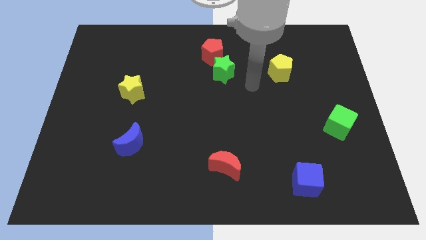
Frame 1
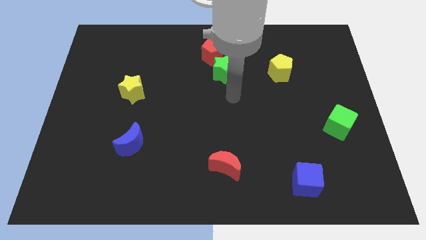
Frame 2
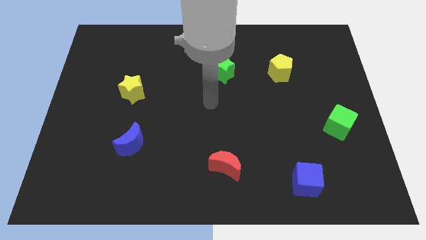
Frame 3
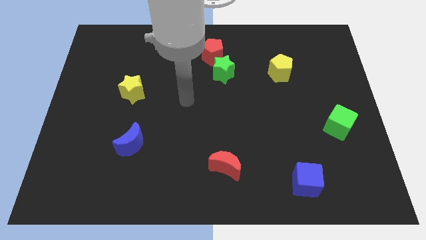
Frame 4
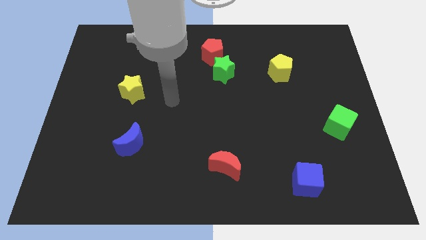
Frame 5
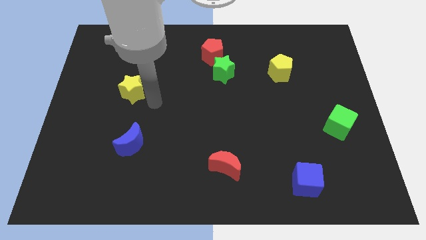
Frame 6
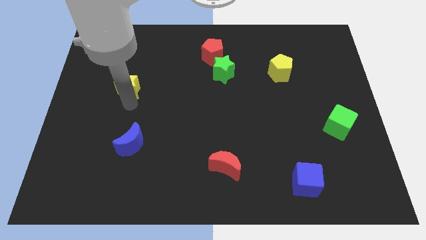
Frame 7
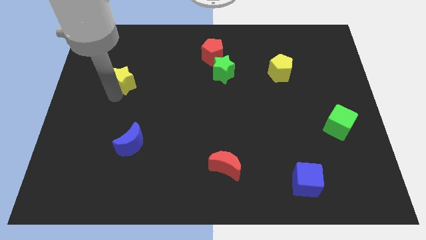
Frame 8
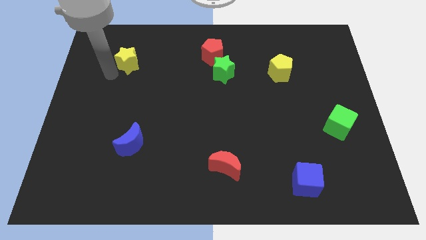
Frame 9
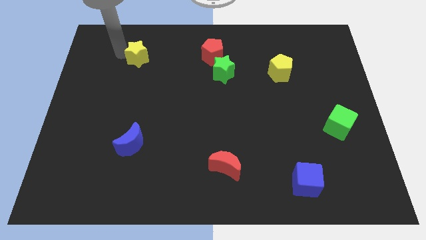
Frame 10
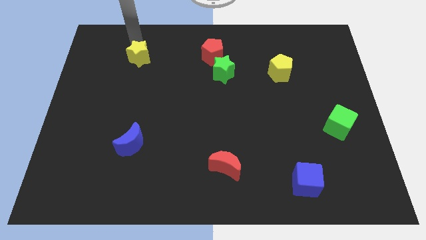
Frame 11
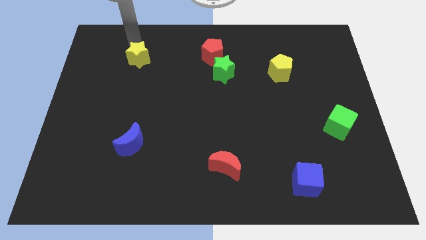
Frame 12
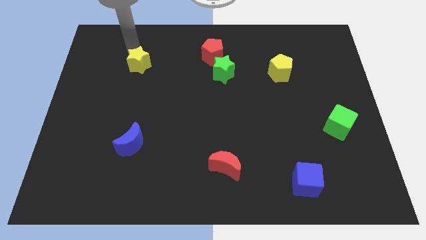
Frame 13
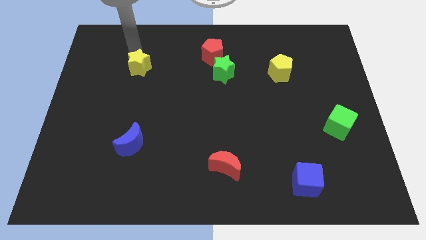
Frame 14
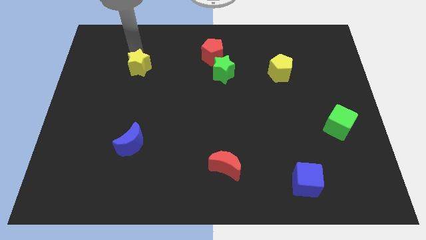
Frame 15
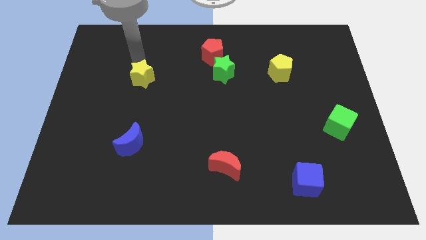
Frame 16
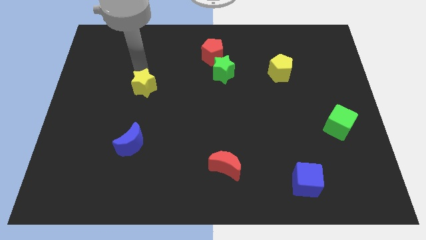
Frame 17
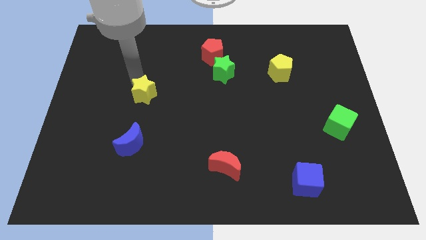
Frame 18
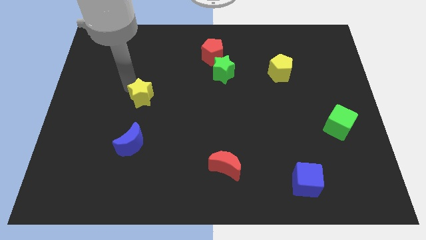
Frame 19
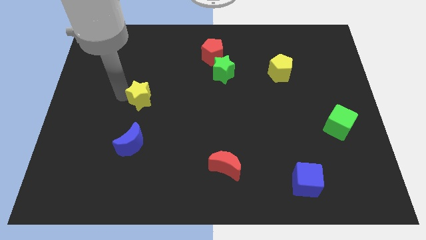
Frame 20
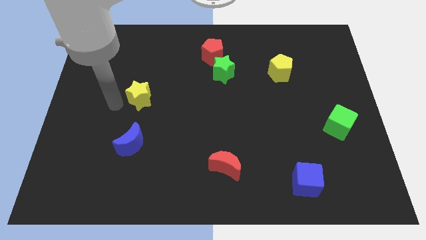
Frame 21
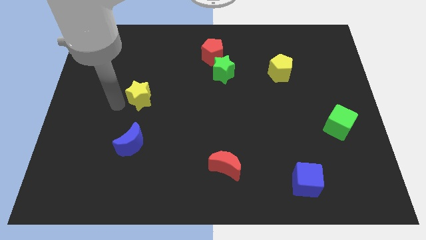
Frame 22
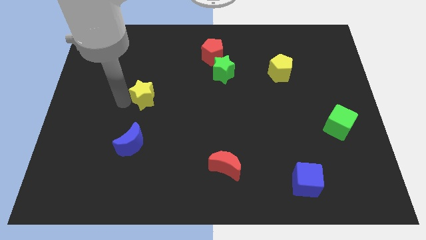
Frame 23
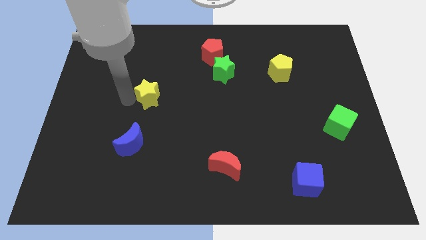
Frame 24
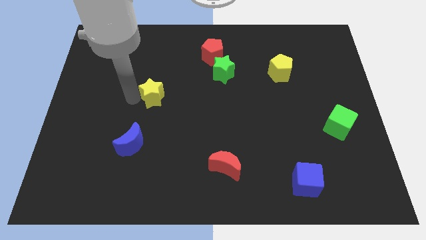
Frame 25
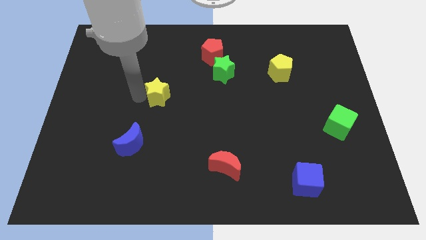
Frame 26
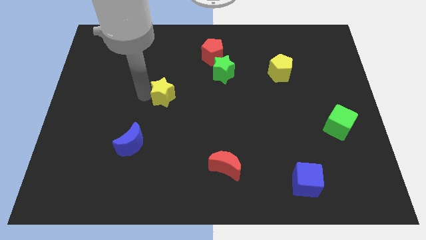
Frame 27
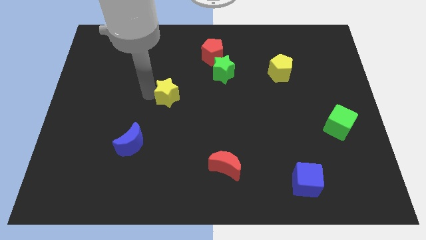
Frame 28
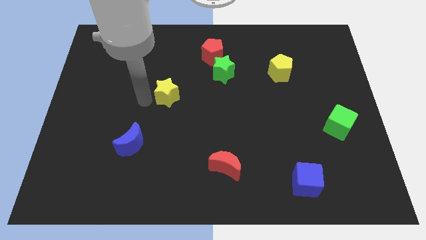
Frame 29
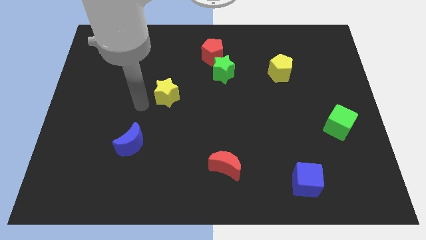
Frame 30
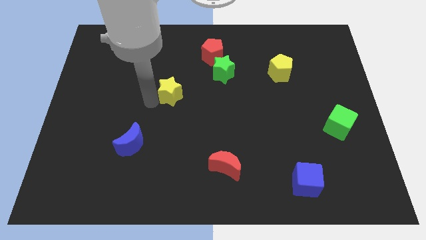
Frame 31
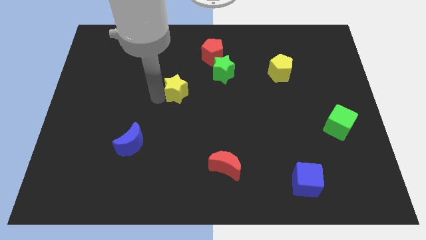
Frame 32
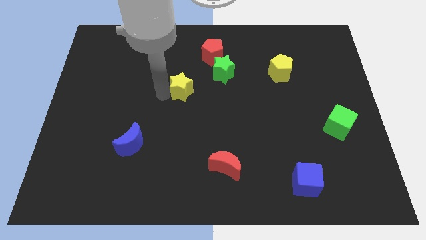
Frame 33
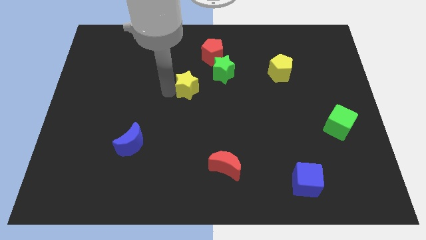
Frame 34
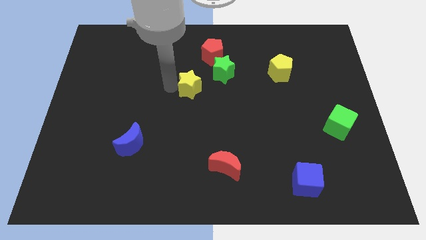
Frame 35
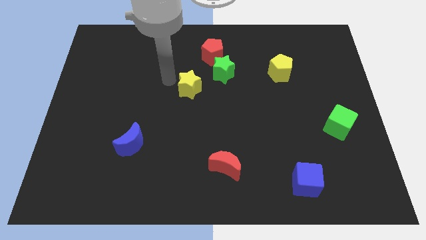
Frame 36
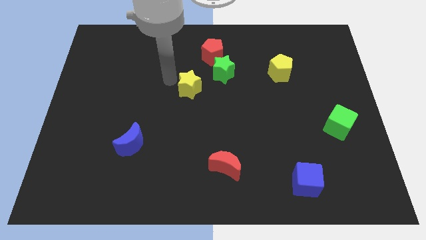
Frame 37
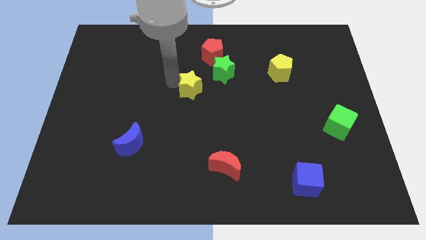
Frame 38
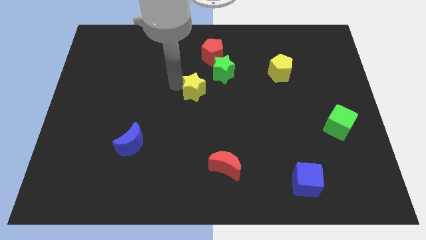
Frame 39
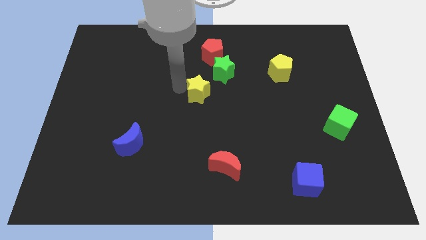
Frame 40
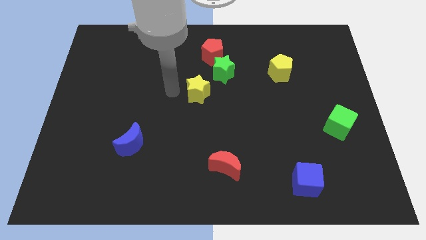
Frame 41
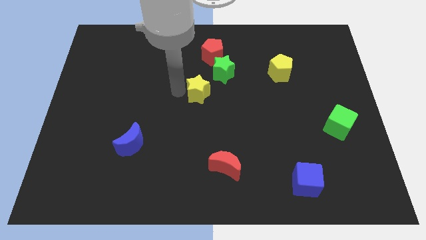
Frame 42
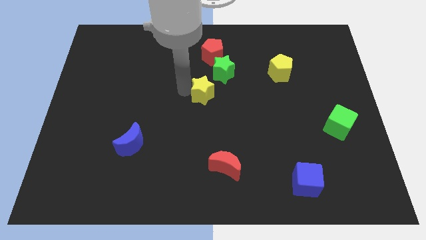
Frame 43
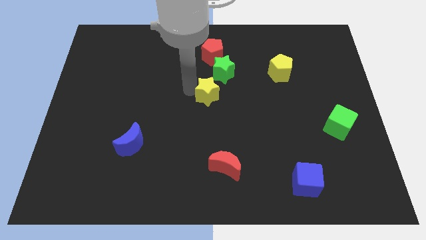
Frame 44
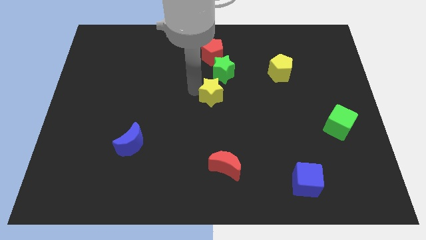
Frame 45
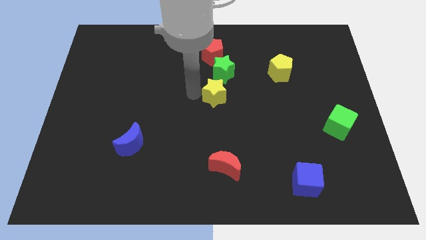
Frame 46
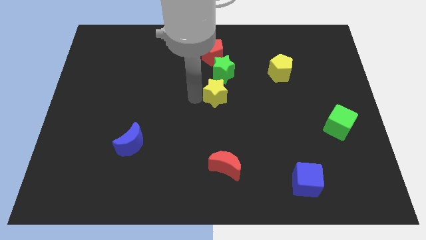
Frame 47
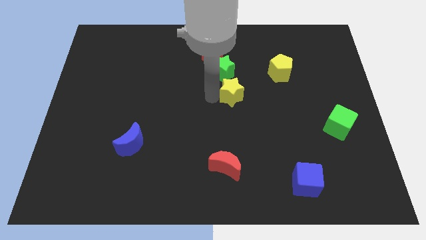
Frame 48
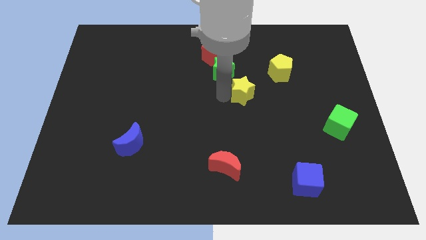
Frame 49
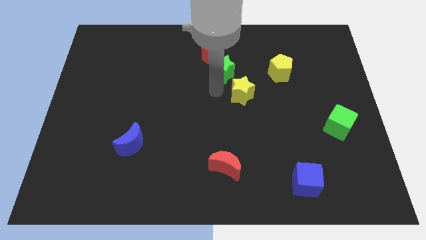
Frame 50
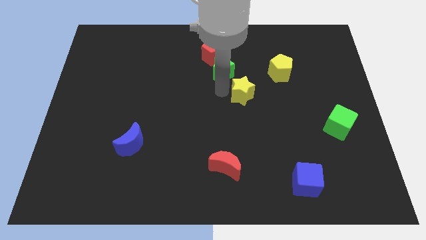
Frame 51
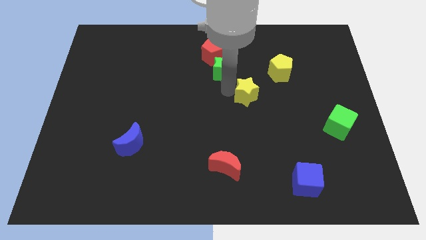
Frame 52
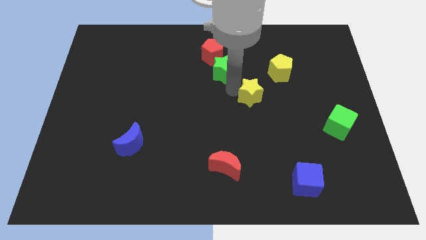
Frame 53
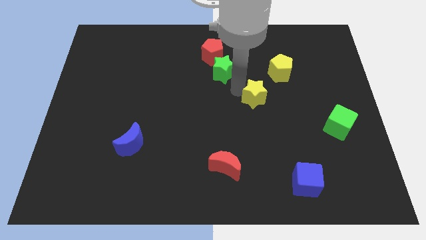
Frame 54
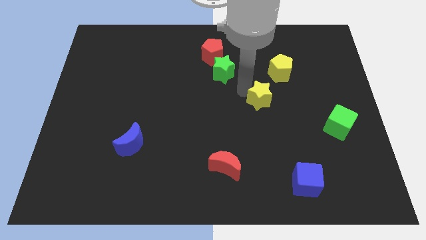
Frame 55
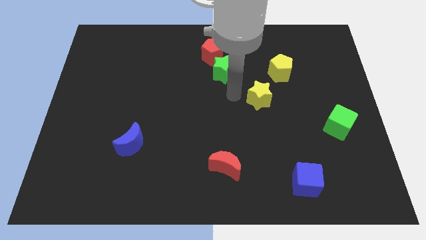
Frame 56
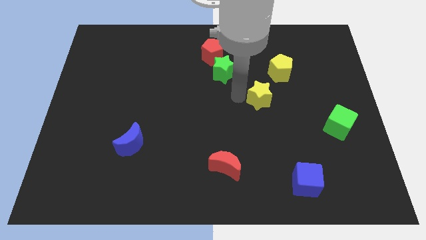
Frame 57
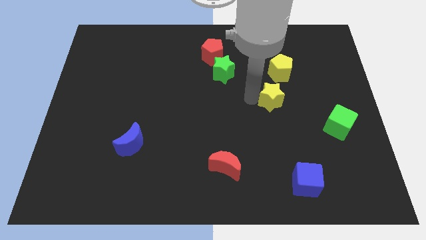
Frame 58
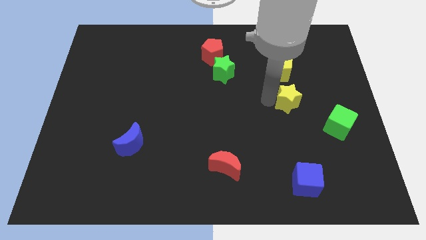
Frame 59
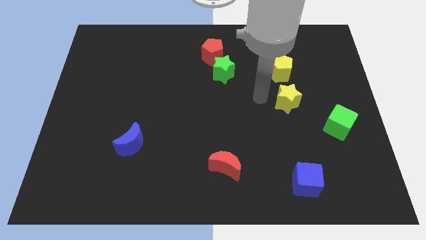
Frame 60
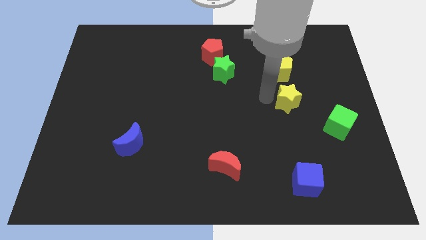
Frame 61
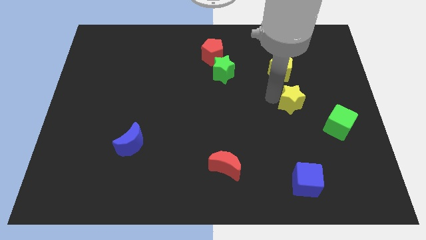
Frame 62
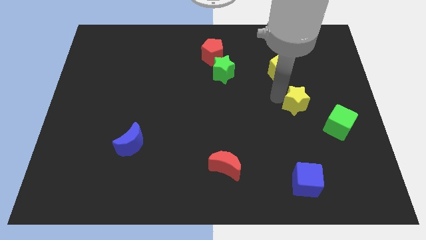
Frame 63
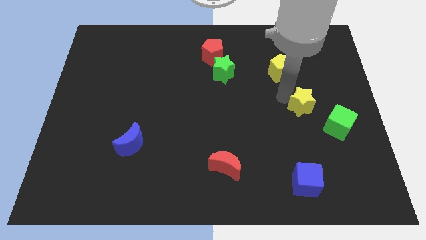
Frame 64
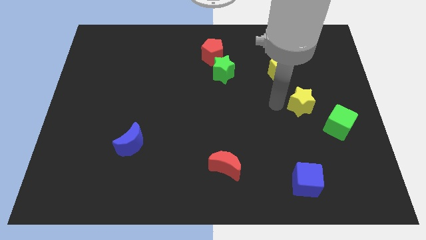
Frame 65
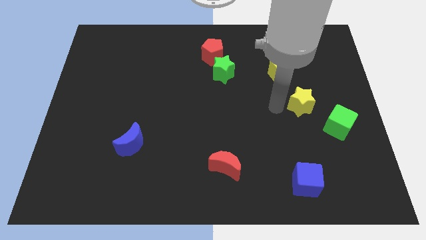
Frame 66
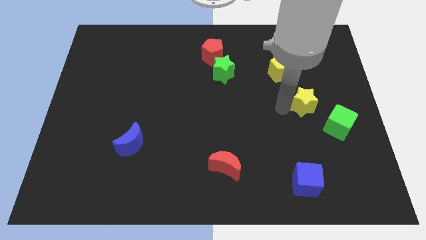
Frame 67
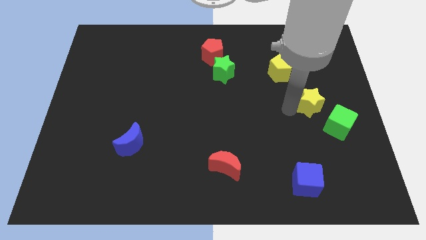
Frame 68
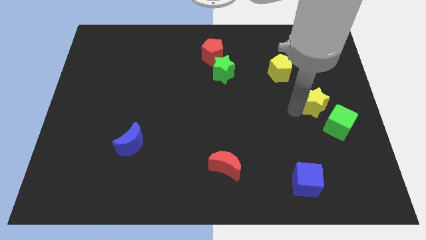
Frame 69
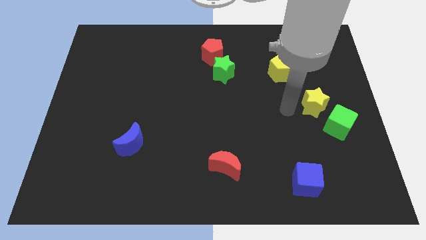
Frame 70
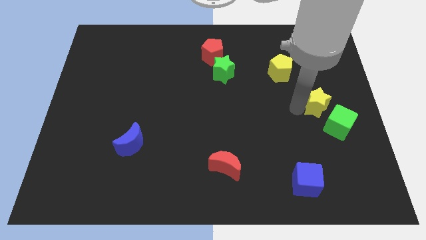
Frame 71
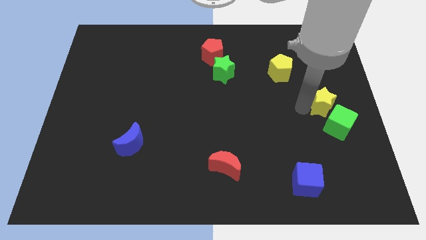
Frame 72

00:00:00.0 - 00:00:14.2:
move the yellow star to the center right
